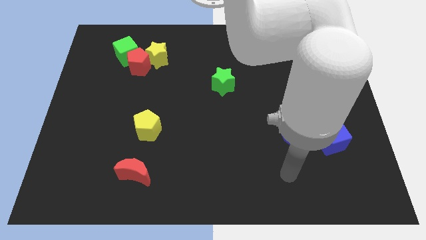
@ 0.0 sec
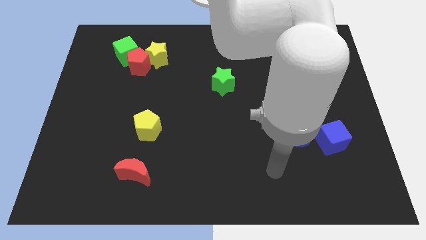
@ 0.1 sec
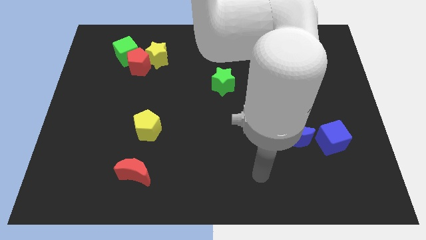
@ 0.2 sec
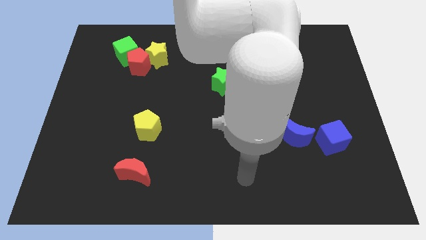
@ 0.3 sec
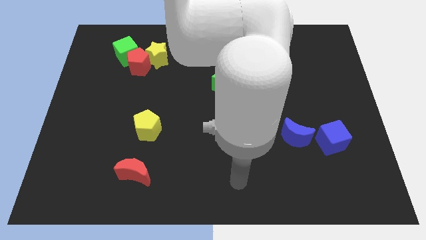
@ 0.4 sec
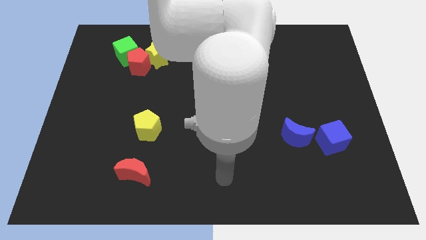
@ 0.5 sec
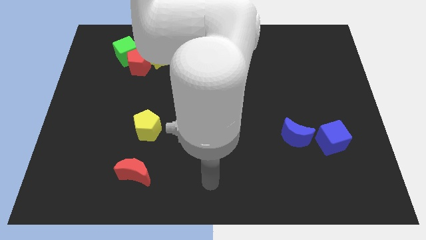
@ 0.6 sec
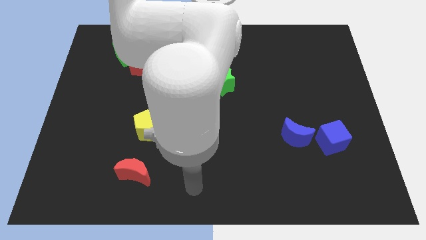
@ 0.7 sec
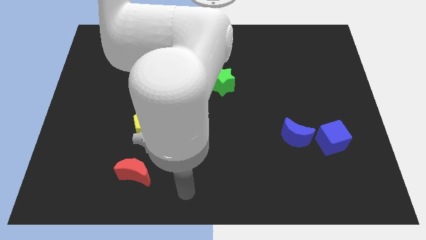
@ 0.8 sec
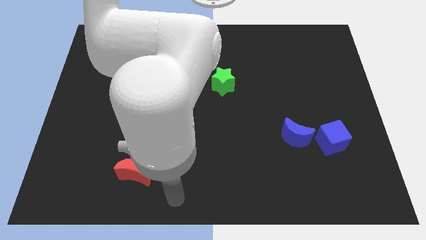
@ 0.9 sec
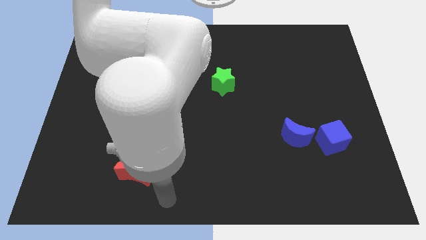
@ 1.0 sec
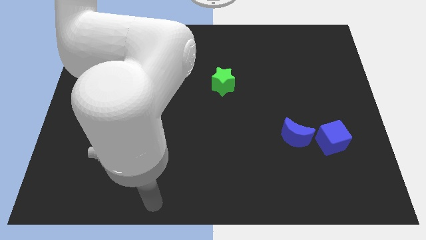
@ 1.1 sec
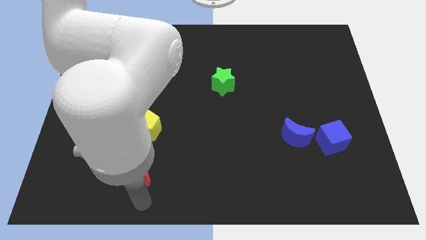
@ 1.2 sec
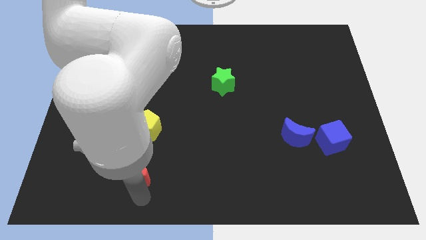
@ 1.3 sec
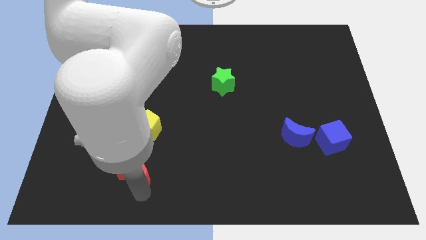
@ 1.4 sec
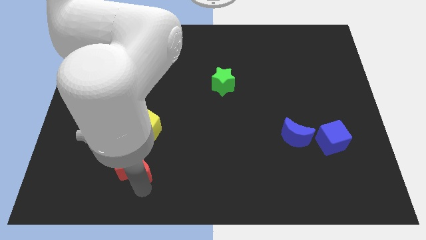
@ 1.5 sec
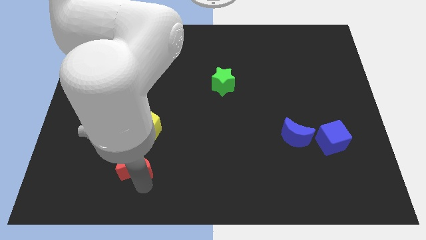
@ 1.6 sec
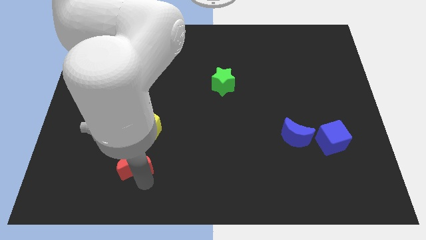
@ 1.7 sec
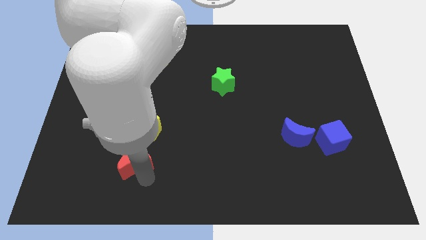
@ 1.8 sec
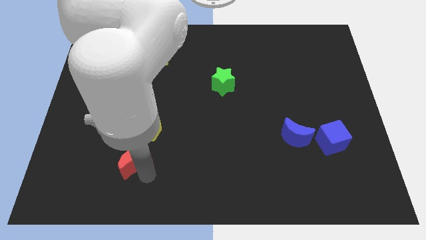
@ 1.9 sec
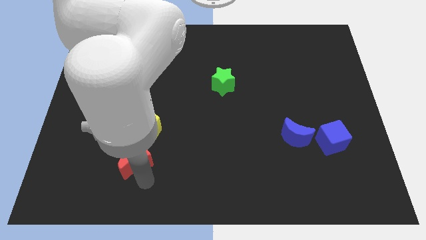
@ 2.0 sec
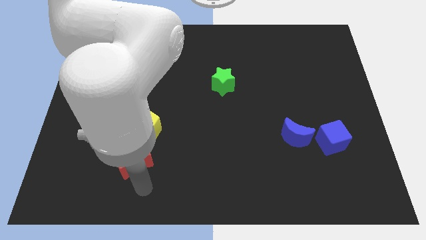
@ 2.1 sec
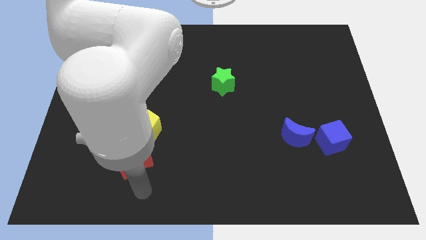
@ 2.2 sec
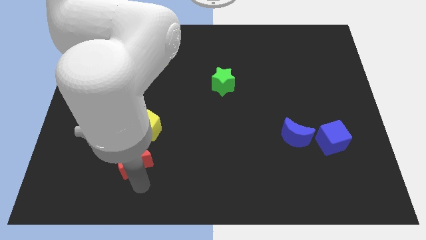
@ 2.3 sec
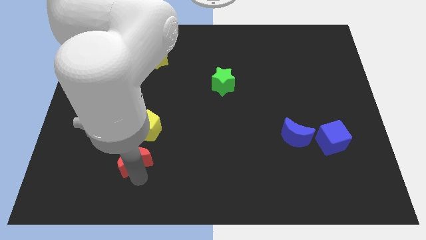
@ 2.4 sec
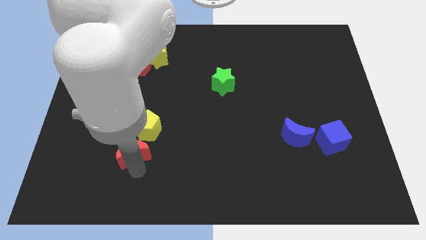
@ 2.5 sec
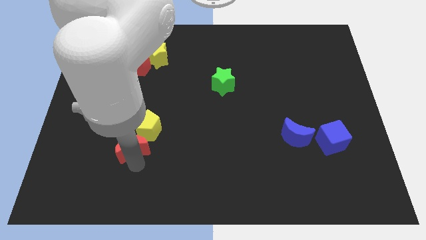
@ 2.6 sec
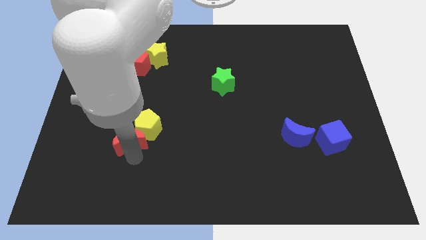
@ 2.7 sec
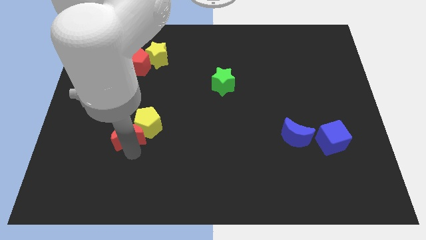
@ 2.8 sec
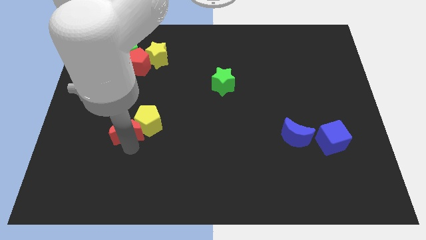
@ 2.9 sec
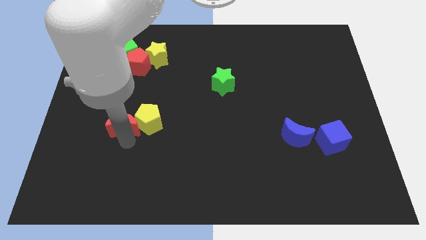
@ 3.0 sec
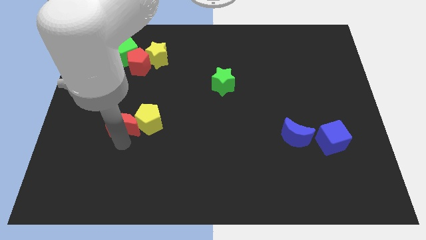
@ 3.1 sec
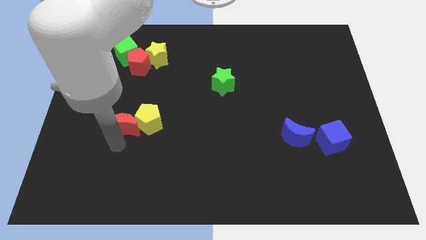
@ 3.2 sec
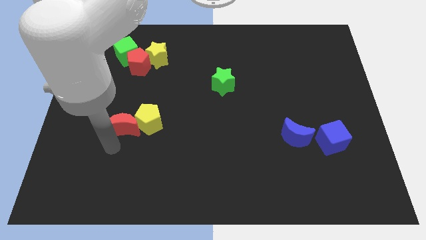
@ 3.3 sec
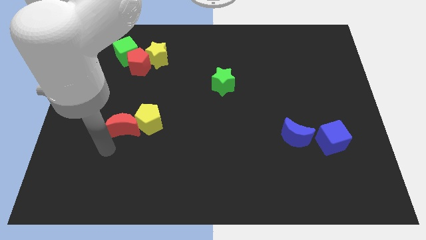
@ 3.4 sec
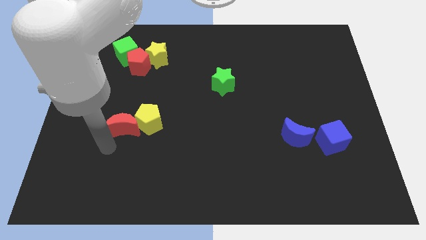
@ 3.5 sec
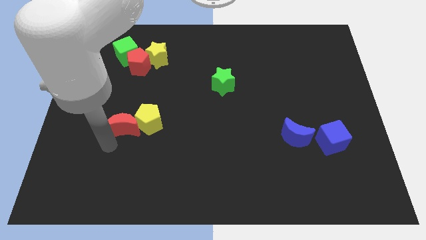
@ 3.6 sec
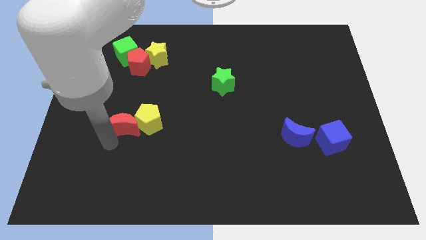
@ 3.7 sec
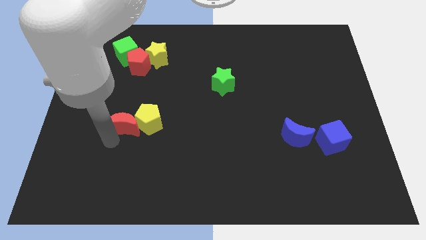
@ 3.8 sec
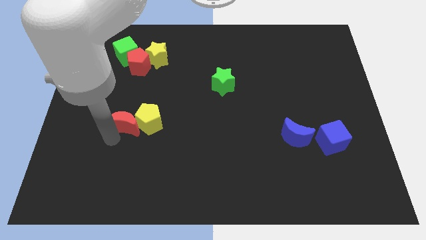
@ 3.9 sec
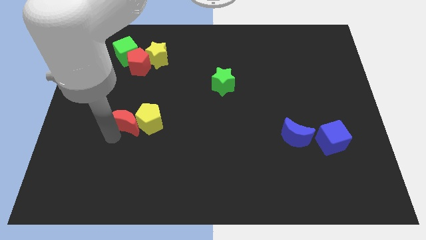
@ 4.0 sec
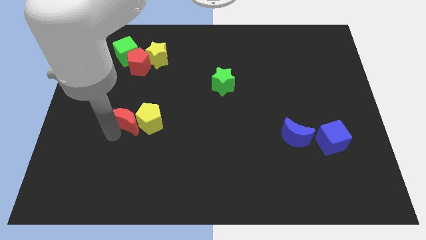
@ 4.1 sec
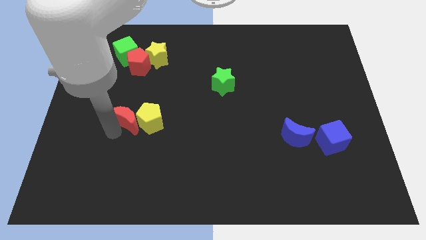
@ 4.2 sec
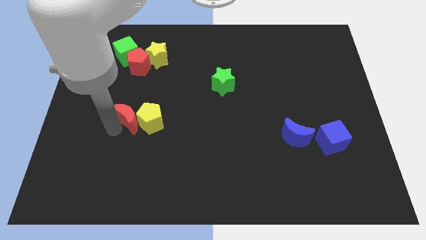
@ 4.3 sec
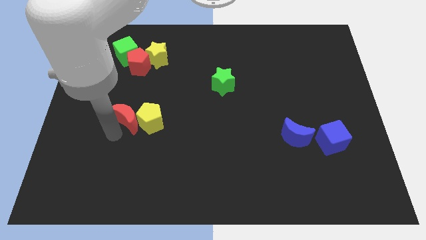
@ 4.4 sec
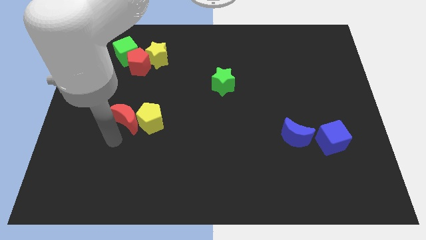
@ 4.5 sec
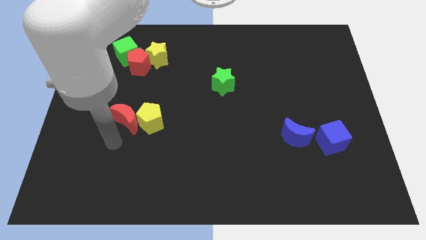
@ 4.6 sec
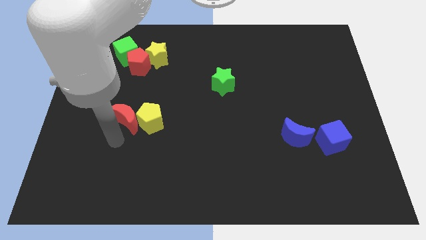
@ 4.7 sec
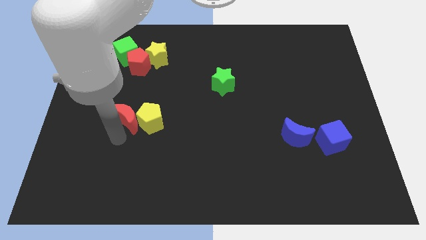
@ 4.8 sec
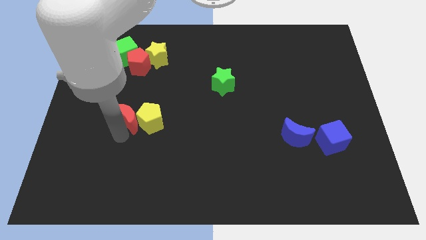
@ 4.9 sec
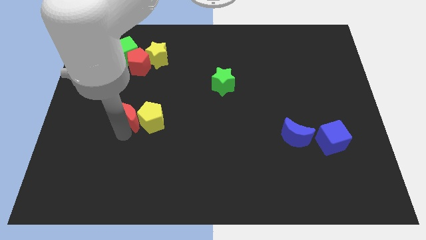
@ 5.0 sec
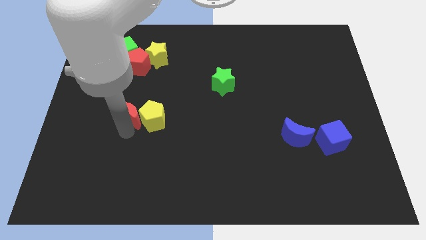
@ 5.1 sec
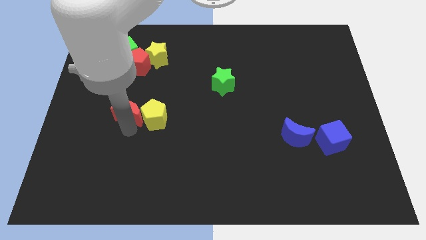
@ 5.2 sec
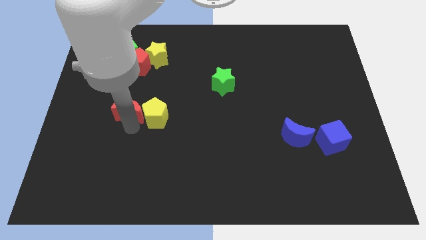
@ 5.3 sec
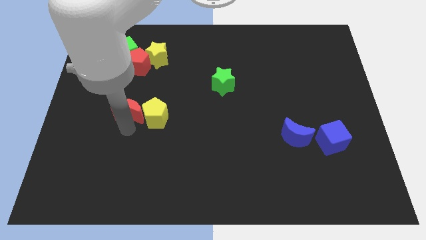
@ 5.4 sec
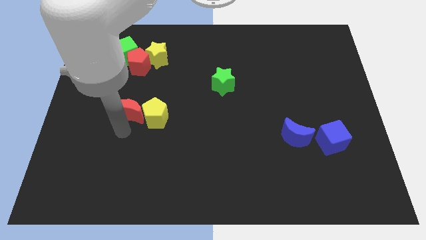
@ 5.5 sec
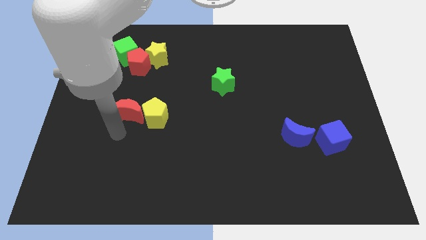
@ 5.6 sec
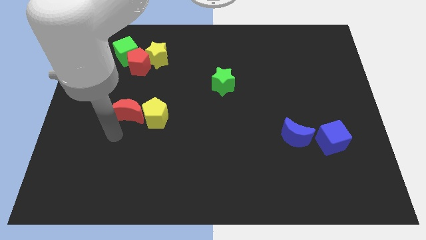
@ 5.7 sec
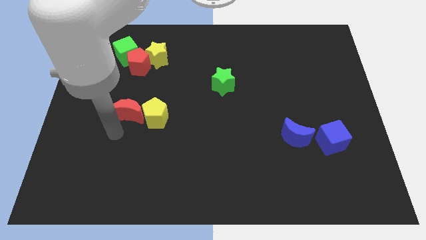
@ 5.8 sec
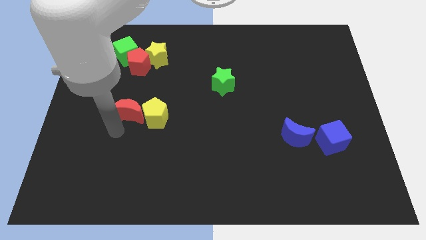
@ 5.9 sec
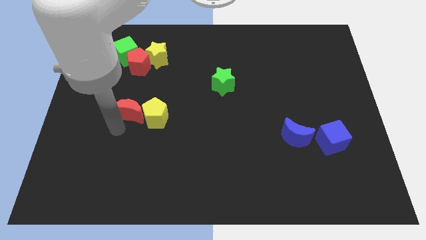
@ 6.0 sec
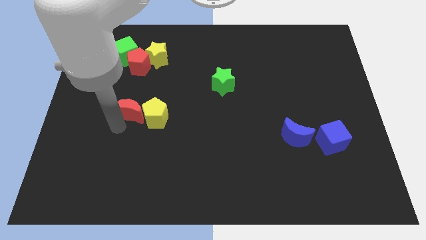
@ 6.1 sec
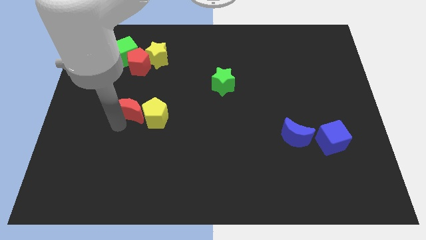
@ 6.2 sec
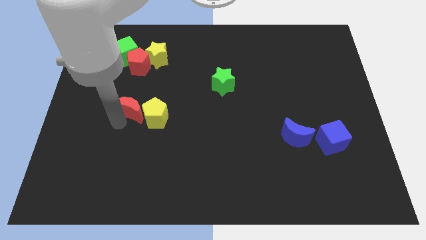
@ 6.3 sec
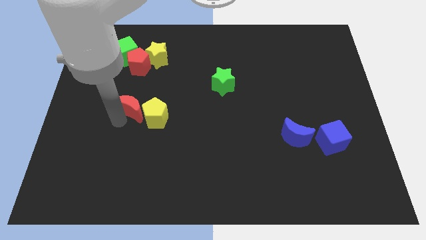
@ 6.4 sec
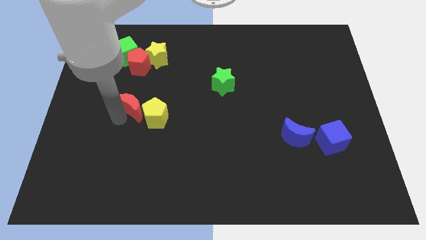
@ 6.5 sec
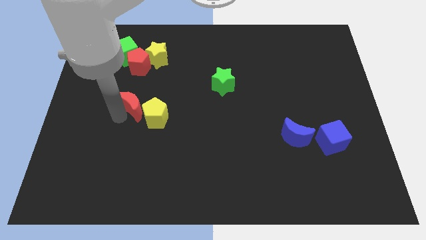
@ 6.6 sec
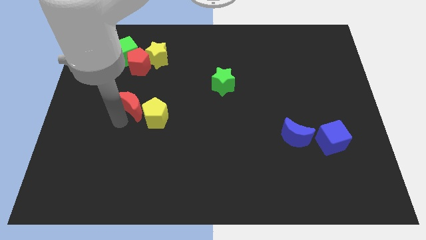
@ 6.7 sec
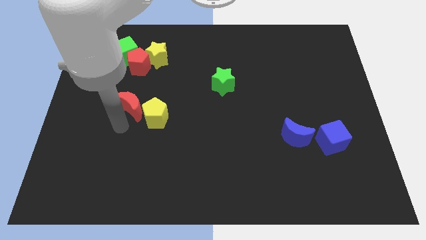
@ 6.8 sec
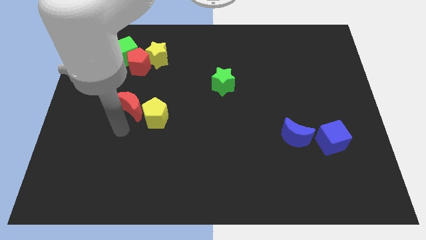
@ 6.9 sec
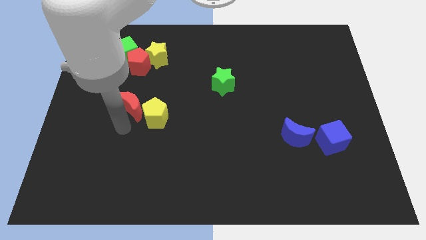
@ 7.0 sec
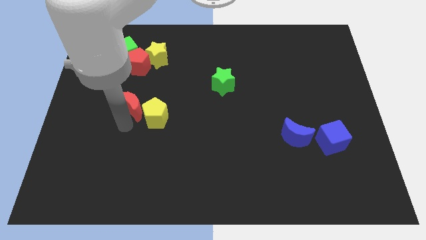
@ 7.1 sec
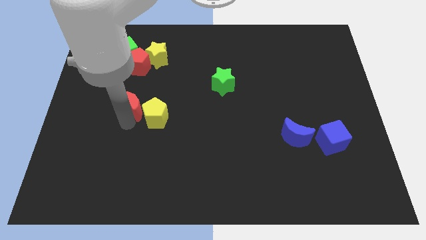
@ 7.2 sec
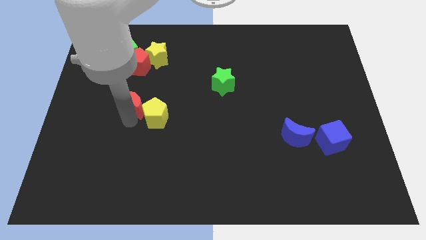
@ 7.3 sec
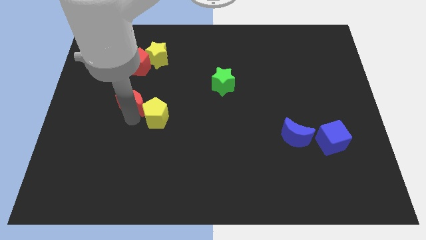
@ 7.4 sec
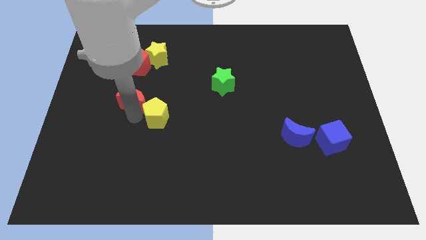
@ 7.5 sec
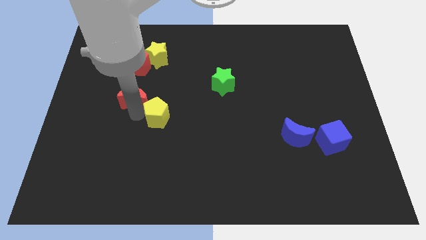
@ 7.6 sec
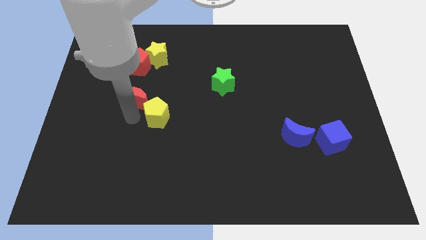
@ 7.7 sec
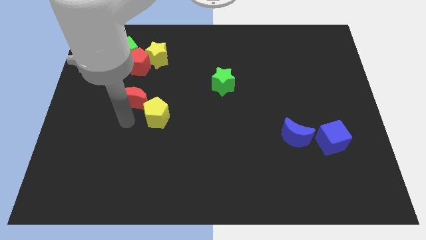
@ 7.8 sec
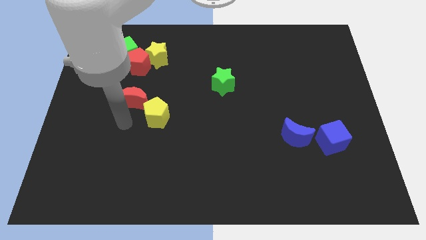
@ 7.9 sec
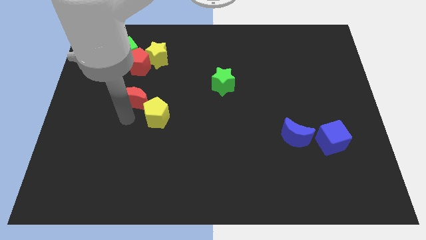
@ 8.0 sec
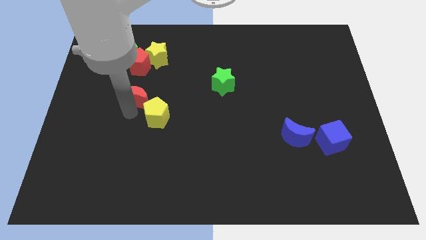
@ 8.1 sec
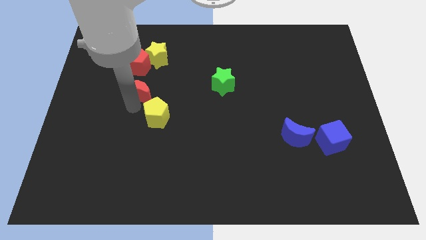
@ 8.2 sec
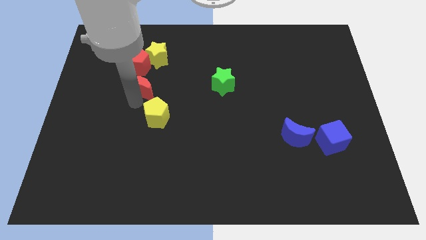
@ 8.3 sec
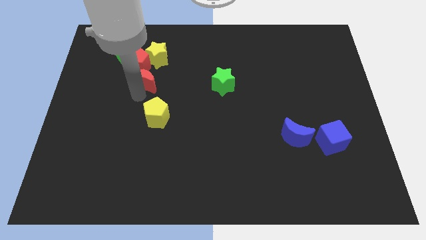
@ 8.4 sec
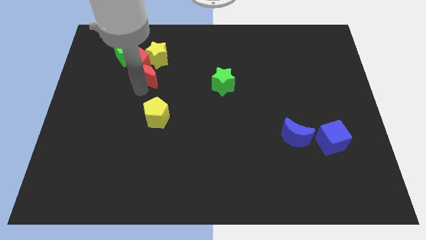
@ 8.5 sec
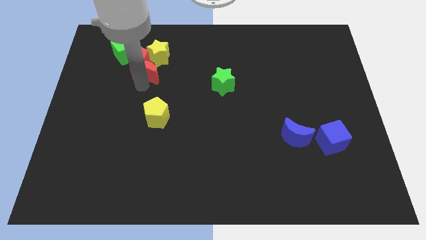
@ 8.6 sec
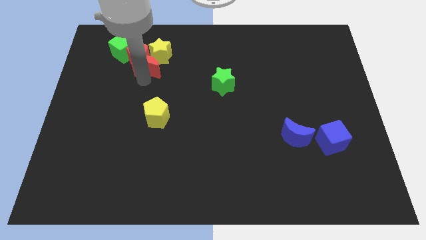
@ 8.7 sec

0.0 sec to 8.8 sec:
move the red moon towards the yellow star
